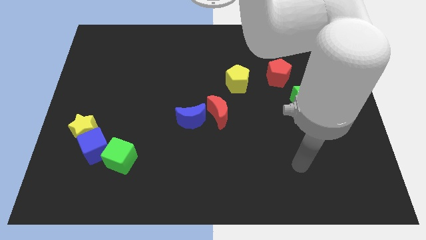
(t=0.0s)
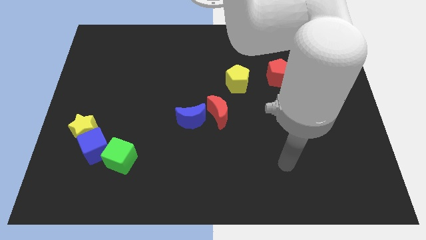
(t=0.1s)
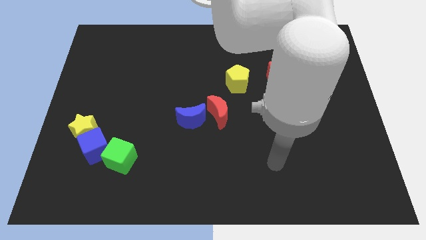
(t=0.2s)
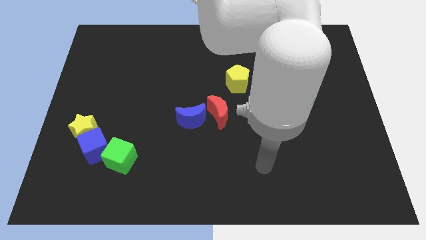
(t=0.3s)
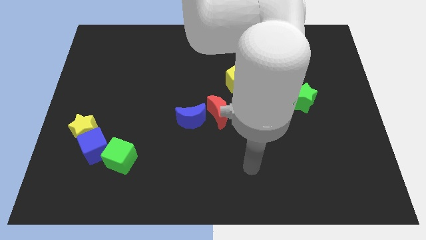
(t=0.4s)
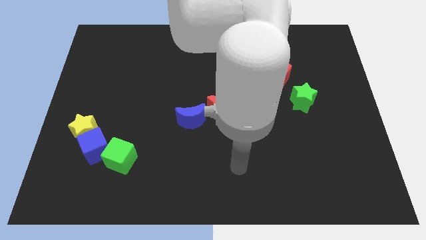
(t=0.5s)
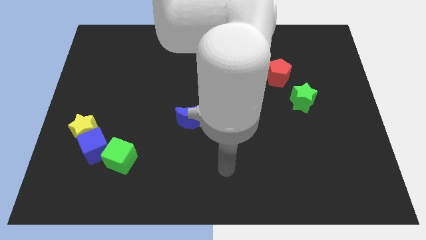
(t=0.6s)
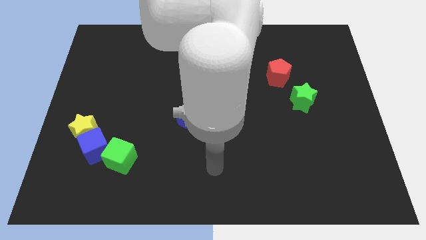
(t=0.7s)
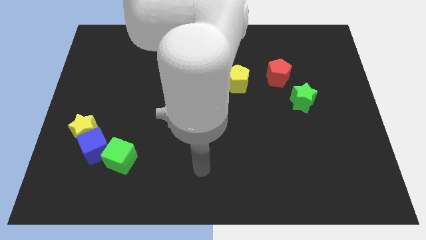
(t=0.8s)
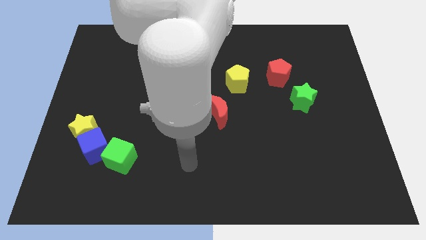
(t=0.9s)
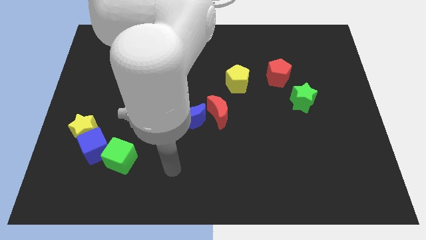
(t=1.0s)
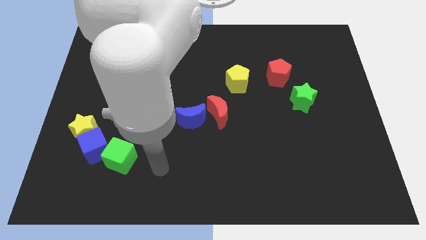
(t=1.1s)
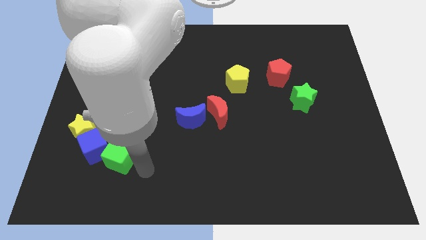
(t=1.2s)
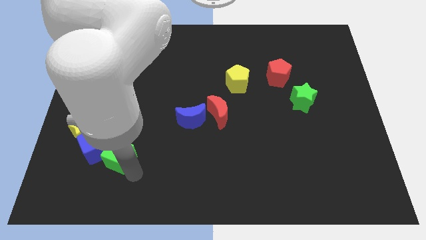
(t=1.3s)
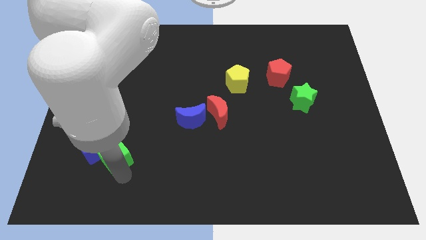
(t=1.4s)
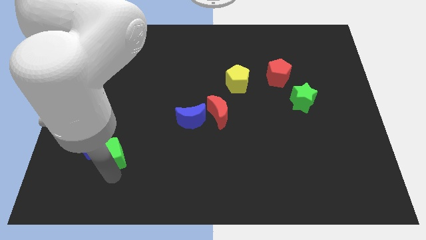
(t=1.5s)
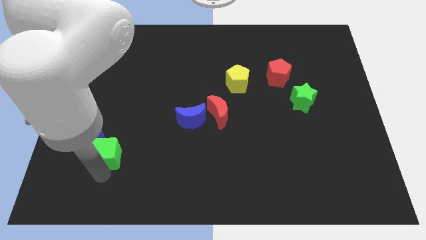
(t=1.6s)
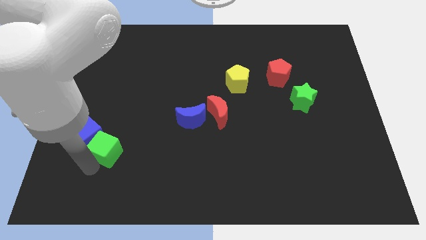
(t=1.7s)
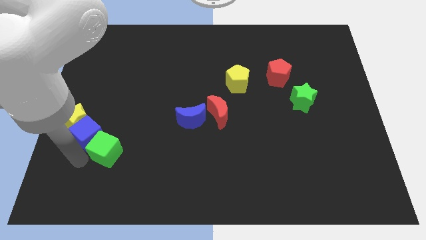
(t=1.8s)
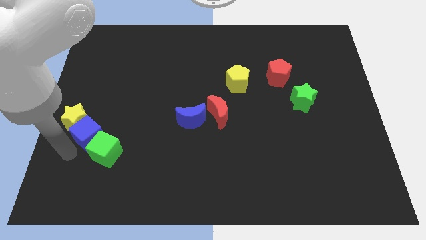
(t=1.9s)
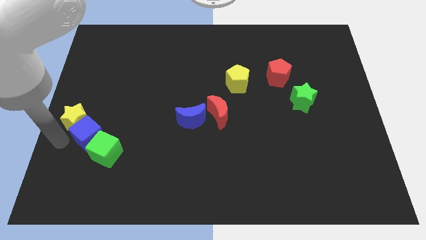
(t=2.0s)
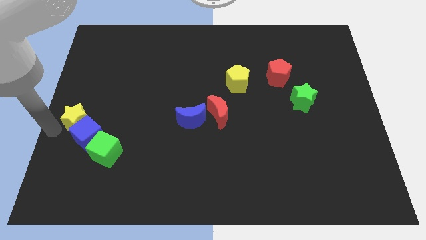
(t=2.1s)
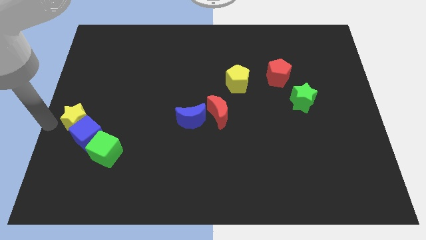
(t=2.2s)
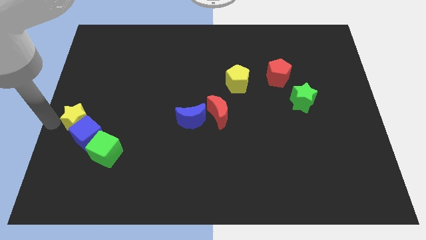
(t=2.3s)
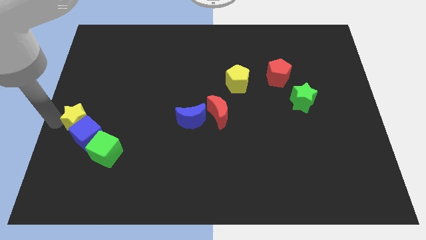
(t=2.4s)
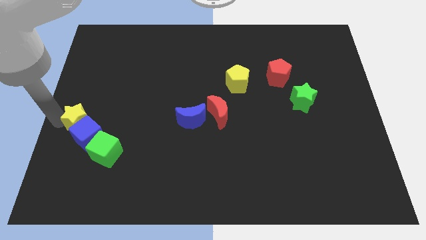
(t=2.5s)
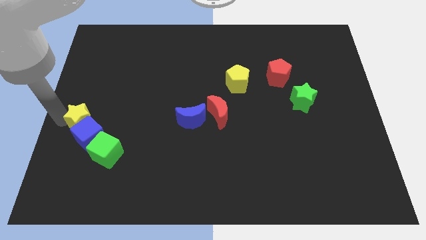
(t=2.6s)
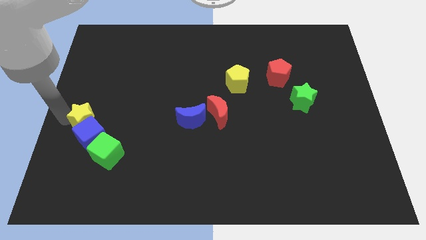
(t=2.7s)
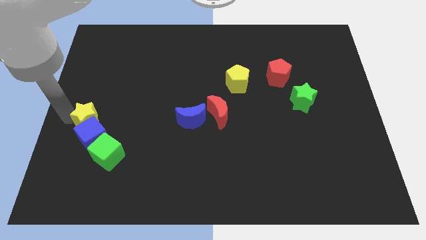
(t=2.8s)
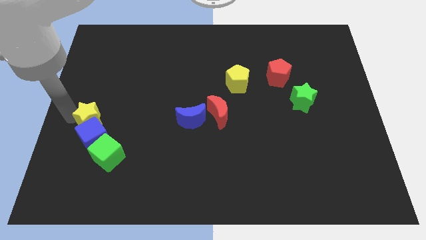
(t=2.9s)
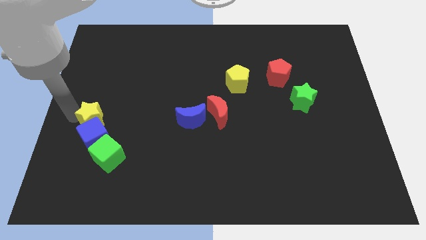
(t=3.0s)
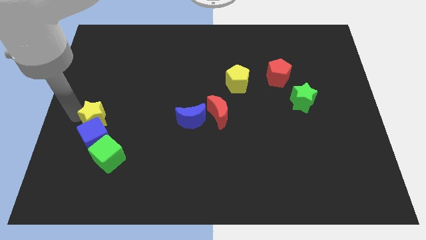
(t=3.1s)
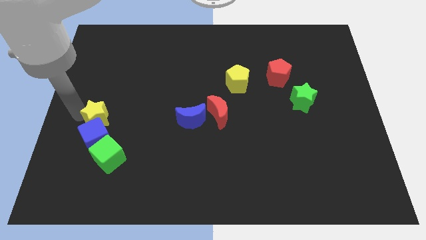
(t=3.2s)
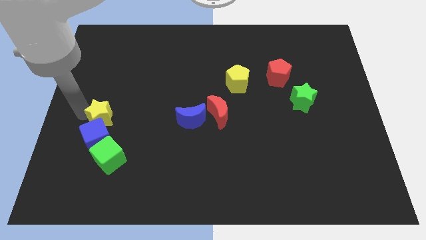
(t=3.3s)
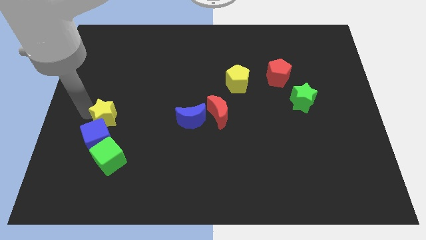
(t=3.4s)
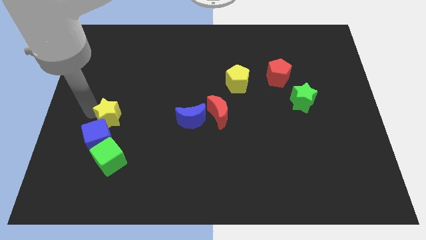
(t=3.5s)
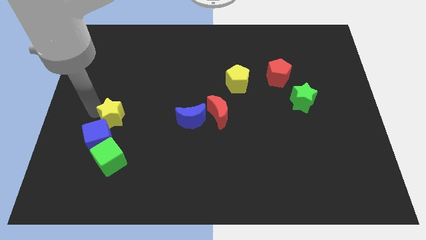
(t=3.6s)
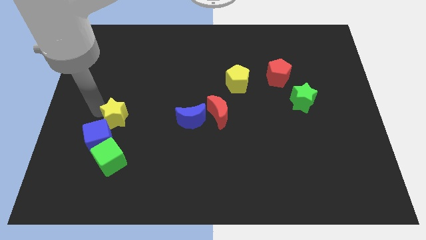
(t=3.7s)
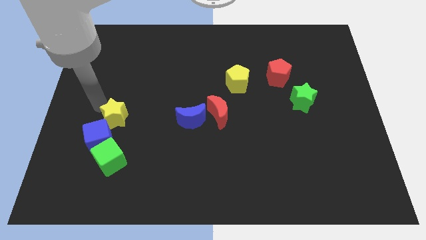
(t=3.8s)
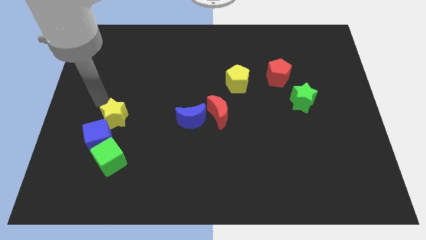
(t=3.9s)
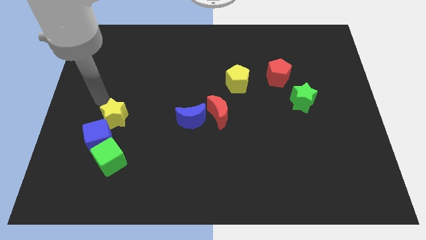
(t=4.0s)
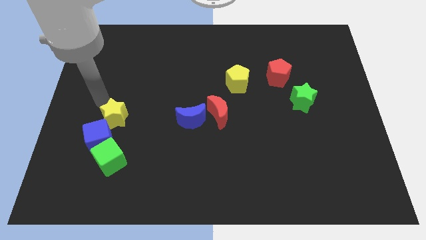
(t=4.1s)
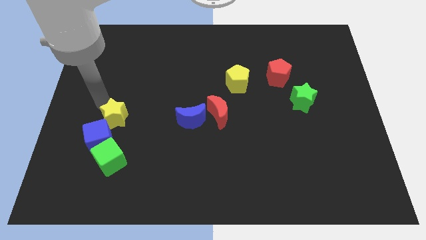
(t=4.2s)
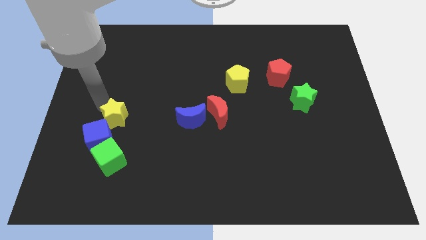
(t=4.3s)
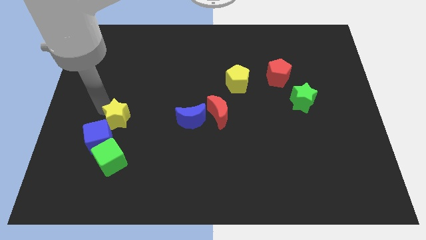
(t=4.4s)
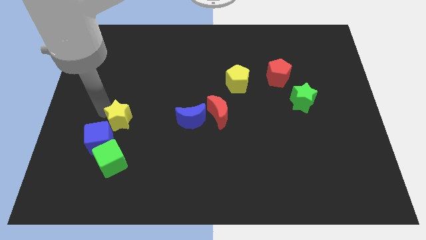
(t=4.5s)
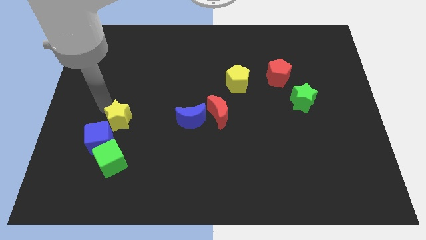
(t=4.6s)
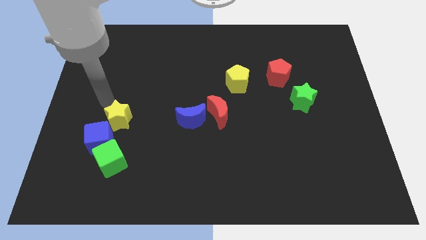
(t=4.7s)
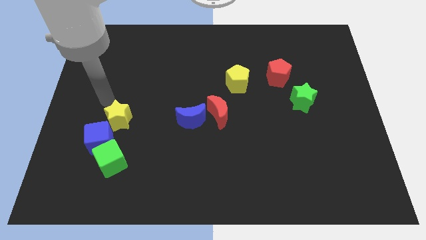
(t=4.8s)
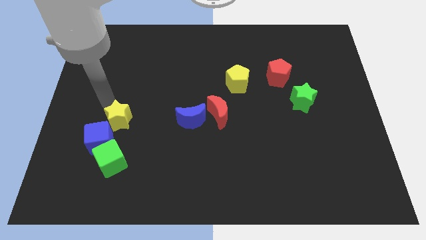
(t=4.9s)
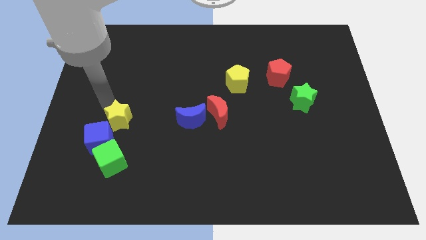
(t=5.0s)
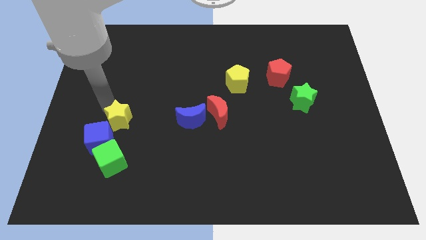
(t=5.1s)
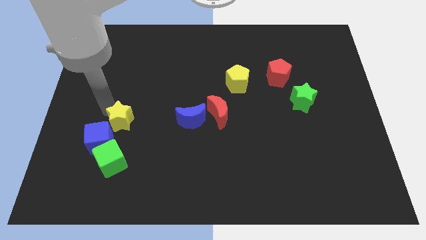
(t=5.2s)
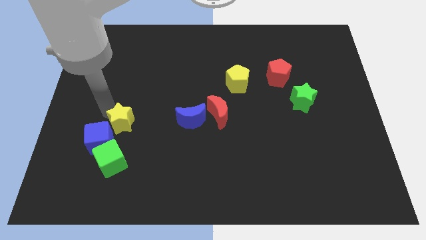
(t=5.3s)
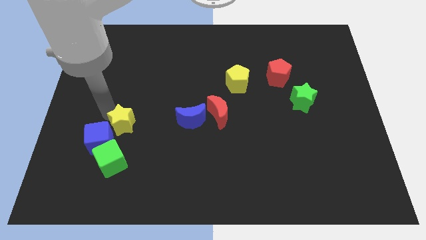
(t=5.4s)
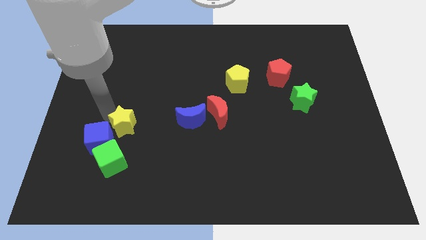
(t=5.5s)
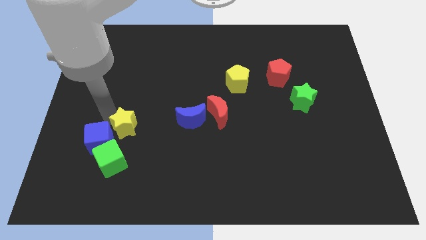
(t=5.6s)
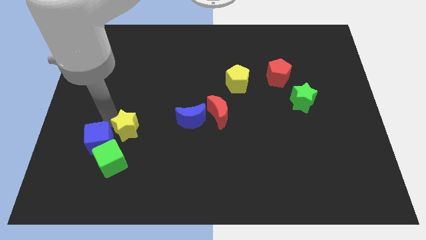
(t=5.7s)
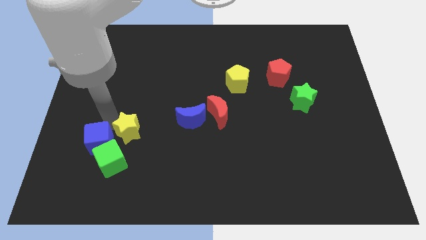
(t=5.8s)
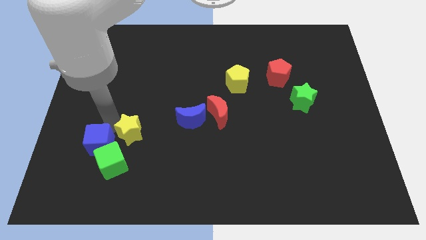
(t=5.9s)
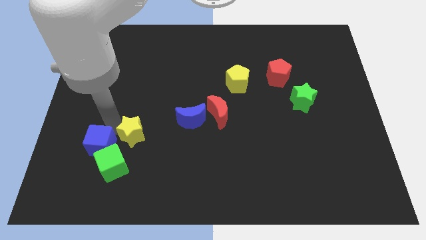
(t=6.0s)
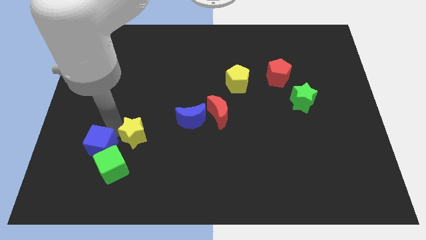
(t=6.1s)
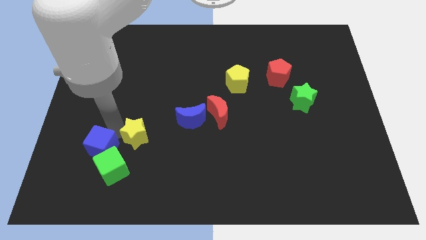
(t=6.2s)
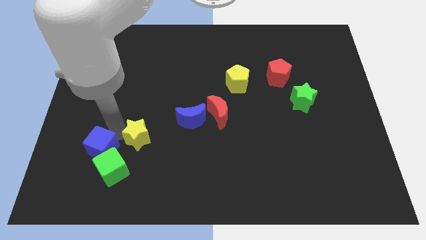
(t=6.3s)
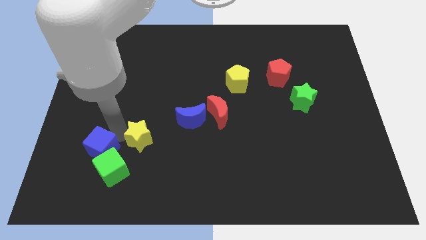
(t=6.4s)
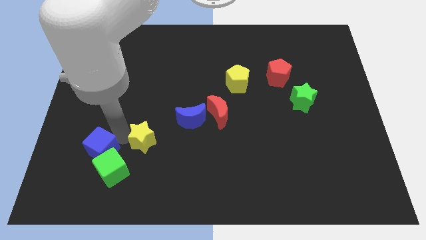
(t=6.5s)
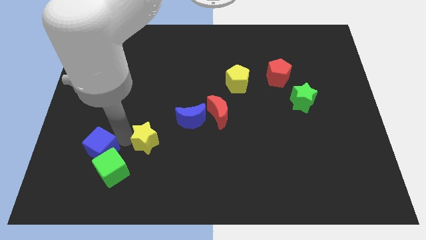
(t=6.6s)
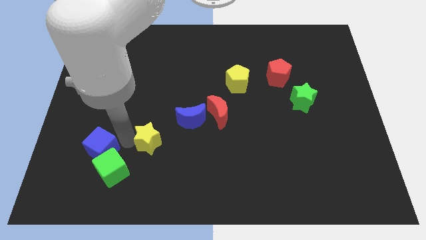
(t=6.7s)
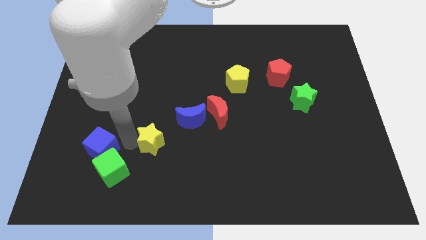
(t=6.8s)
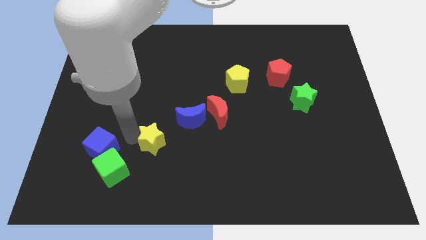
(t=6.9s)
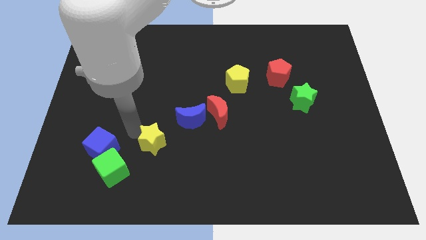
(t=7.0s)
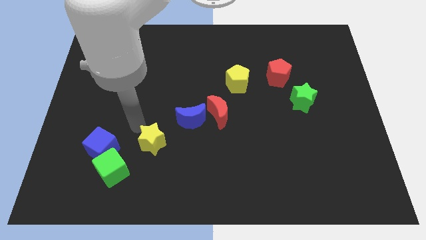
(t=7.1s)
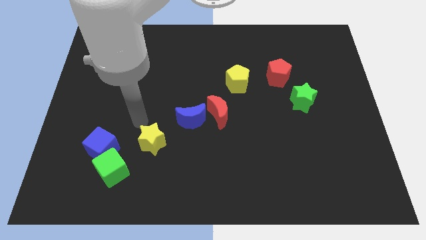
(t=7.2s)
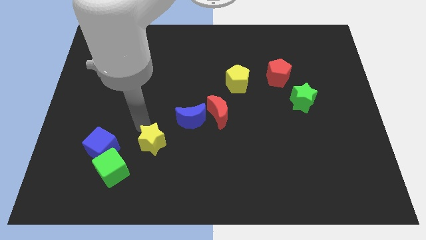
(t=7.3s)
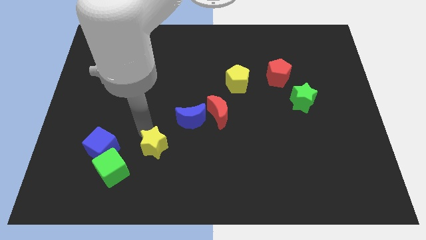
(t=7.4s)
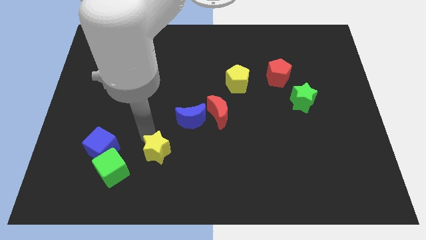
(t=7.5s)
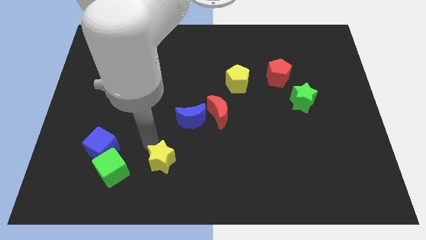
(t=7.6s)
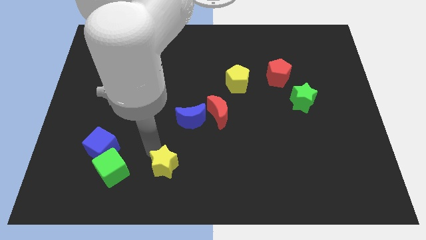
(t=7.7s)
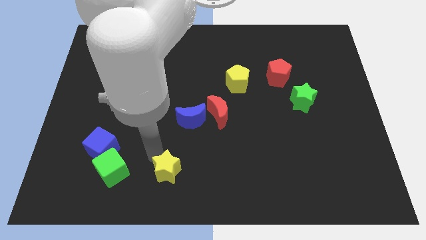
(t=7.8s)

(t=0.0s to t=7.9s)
put the yellow star to the bottom side

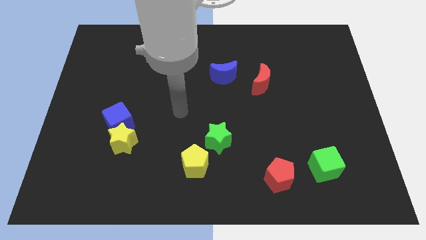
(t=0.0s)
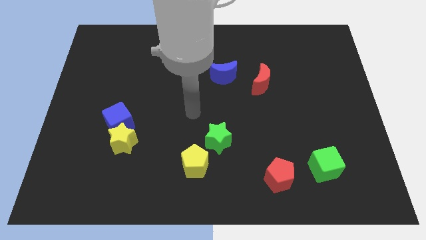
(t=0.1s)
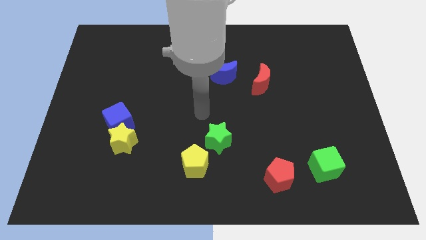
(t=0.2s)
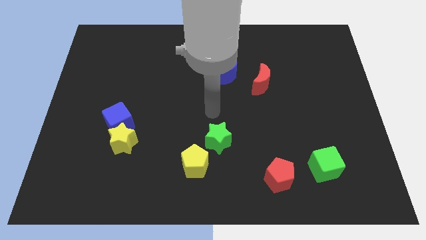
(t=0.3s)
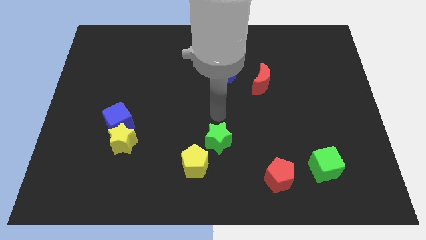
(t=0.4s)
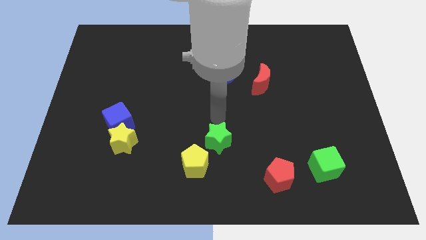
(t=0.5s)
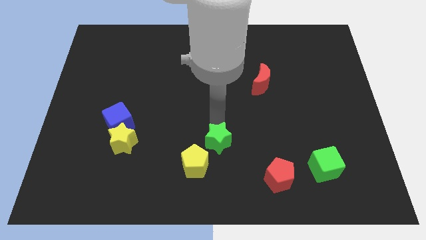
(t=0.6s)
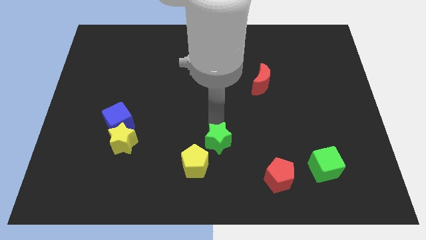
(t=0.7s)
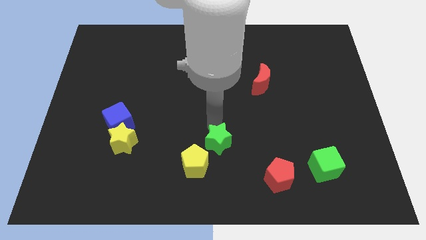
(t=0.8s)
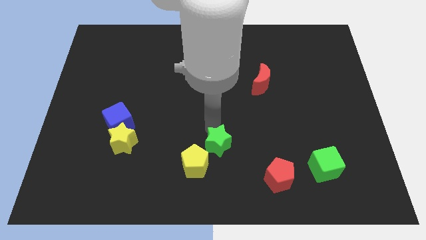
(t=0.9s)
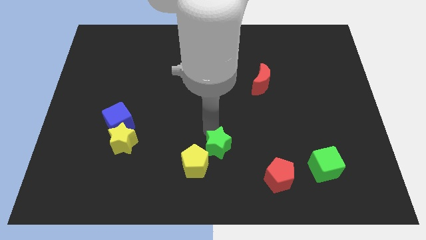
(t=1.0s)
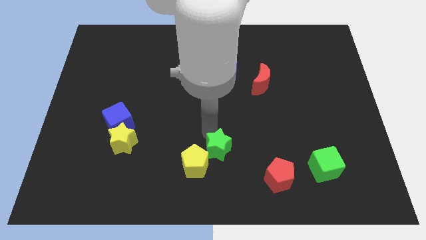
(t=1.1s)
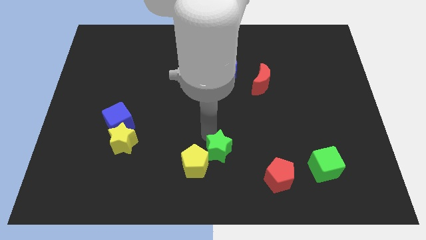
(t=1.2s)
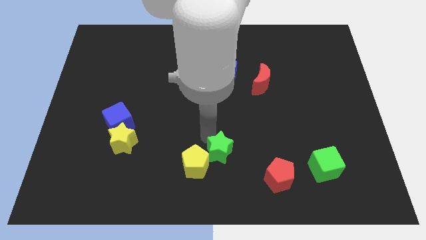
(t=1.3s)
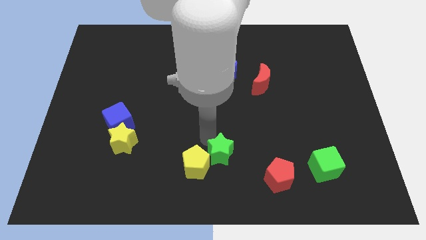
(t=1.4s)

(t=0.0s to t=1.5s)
slide the green star to the bottom
